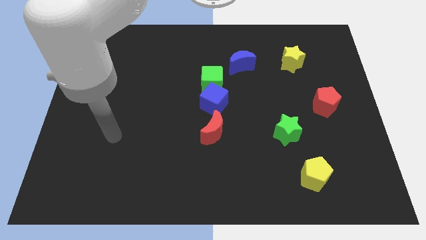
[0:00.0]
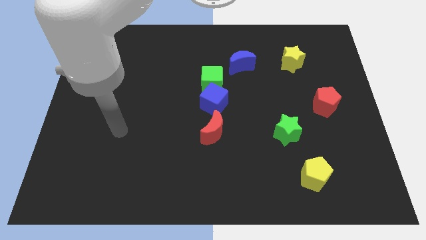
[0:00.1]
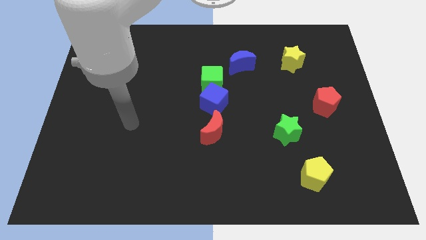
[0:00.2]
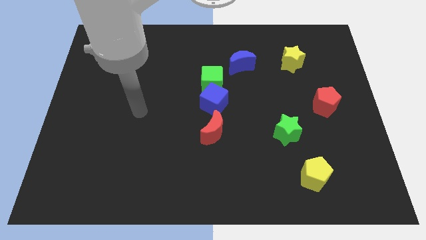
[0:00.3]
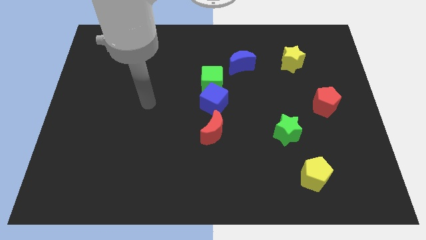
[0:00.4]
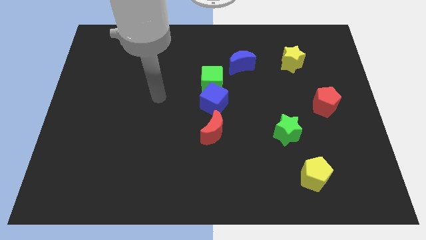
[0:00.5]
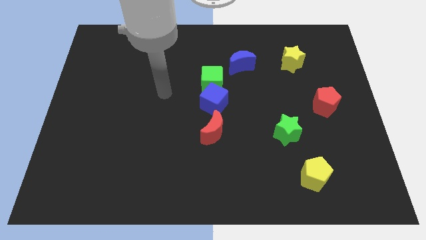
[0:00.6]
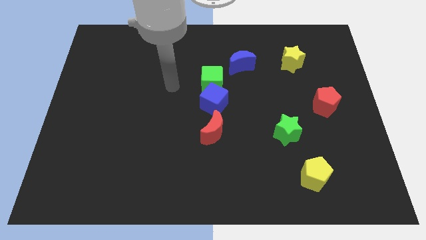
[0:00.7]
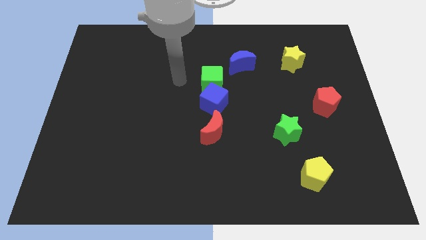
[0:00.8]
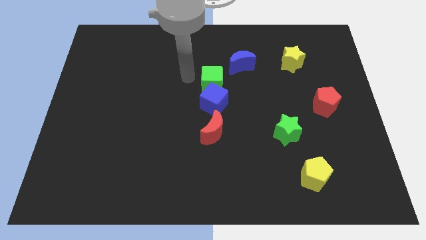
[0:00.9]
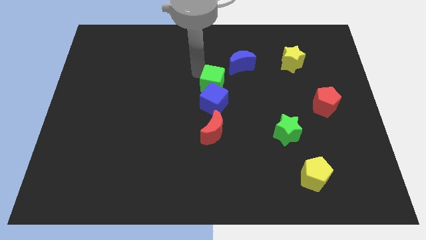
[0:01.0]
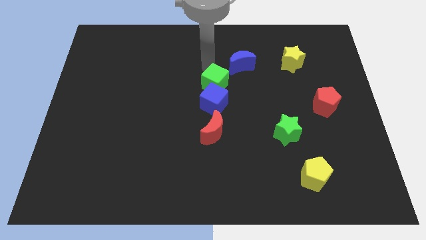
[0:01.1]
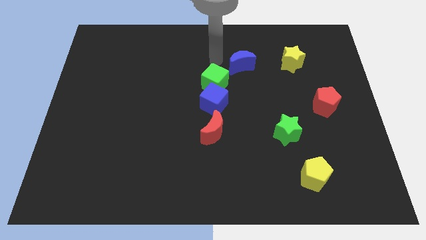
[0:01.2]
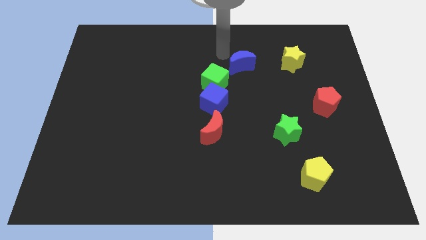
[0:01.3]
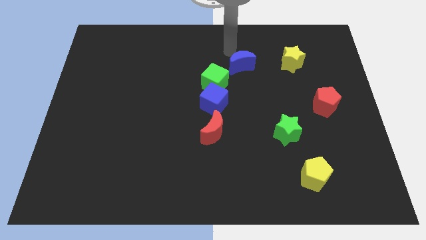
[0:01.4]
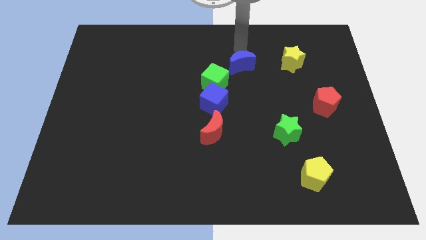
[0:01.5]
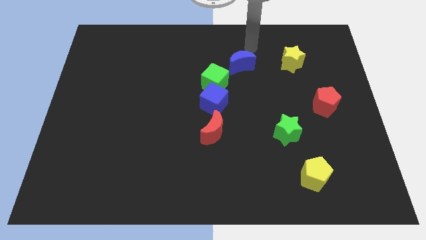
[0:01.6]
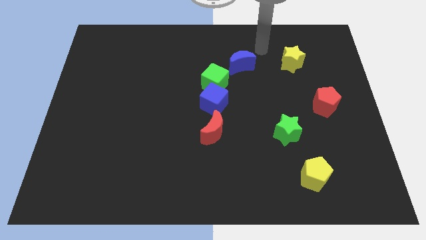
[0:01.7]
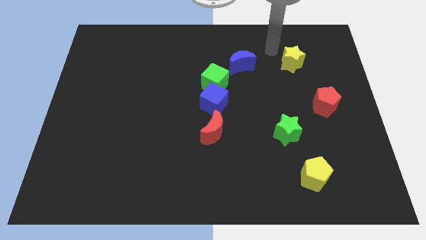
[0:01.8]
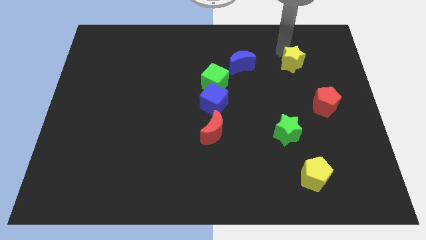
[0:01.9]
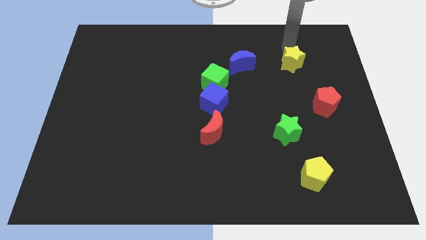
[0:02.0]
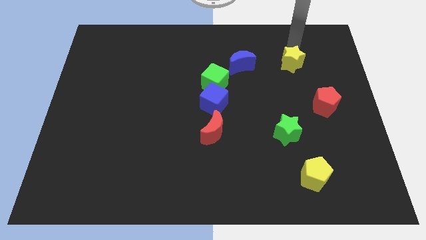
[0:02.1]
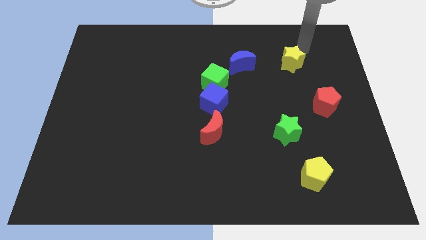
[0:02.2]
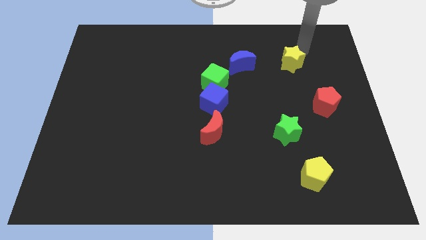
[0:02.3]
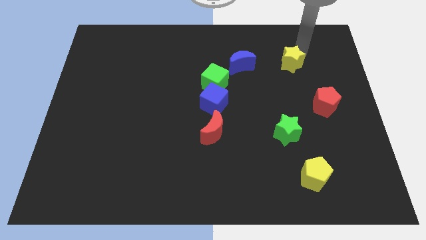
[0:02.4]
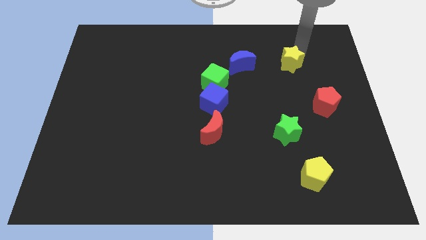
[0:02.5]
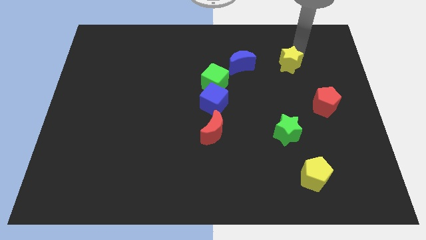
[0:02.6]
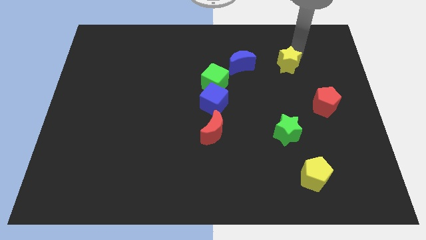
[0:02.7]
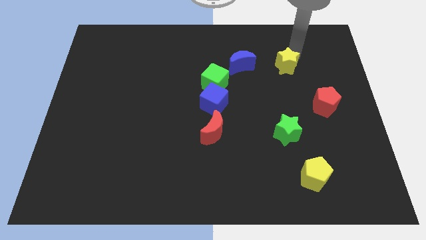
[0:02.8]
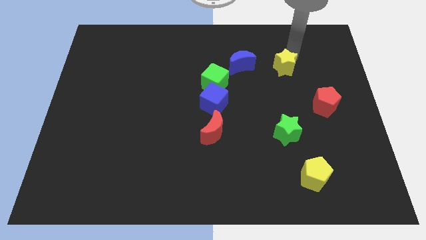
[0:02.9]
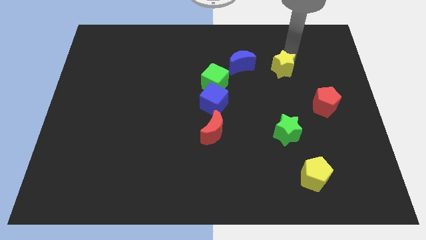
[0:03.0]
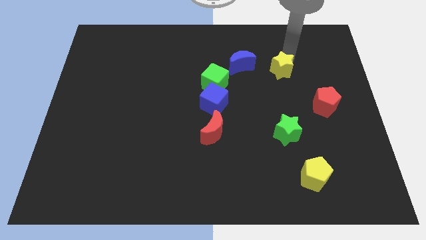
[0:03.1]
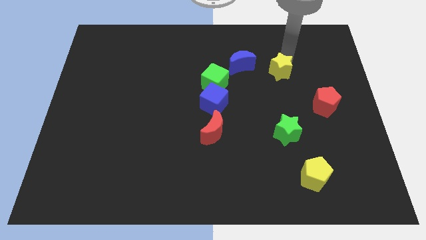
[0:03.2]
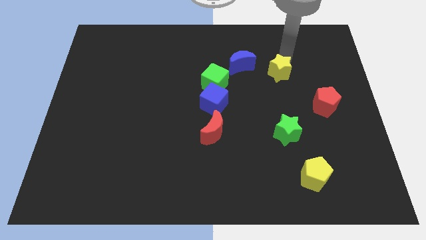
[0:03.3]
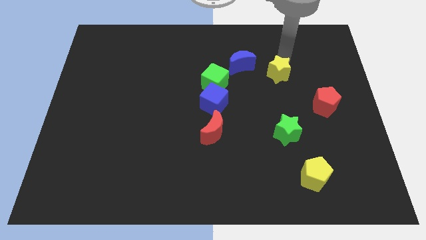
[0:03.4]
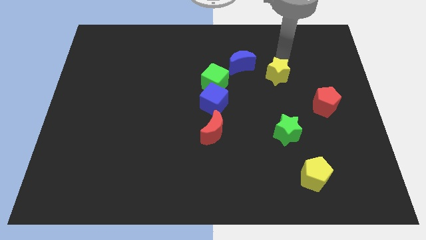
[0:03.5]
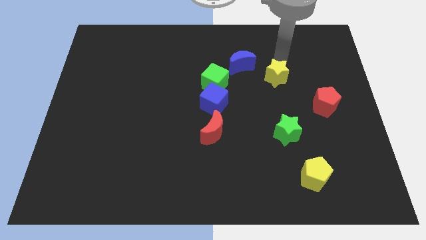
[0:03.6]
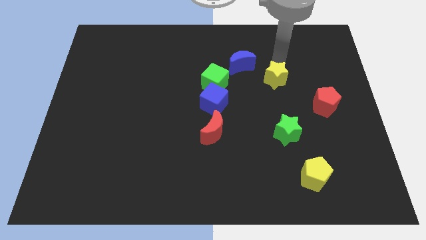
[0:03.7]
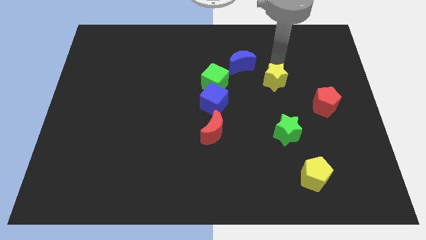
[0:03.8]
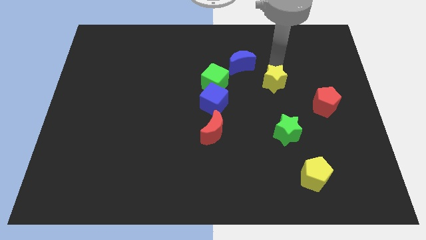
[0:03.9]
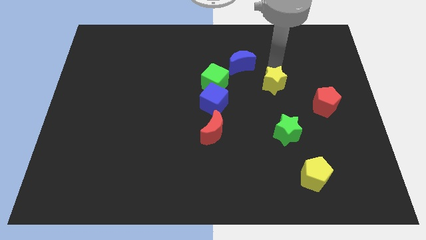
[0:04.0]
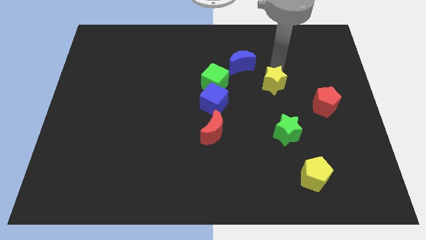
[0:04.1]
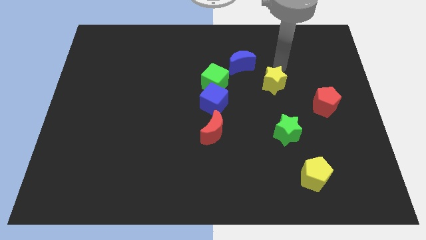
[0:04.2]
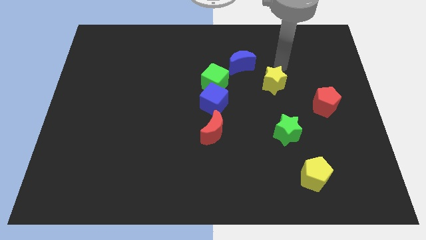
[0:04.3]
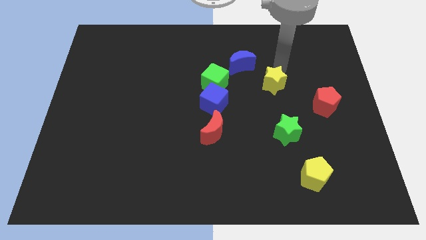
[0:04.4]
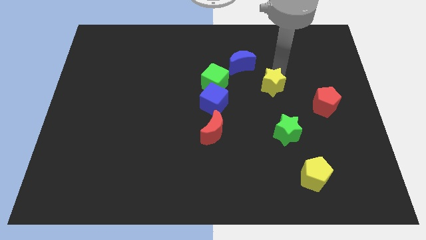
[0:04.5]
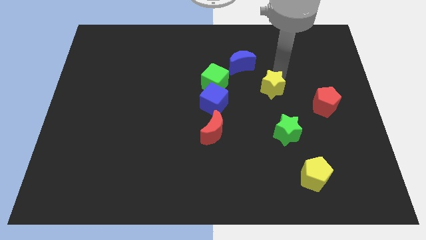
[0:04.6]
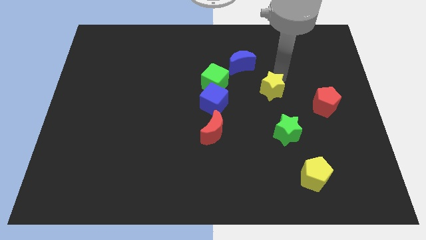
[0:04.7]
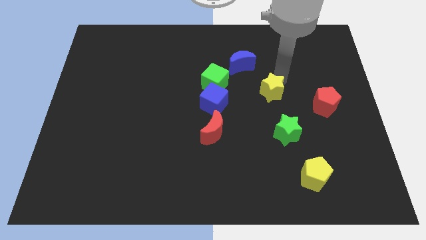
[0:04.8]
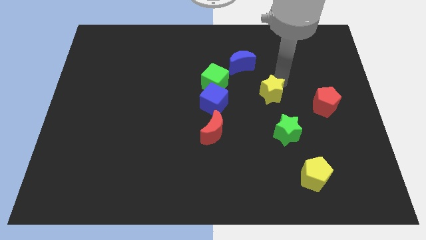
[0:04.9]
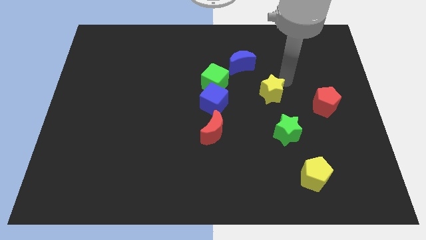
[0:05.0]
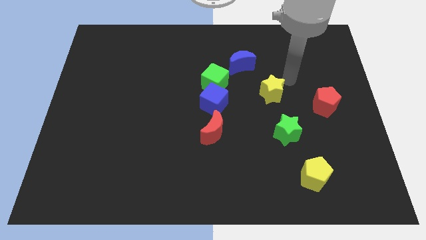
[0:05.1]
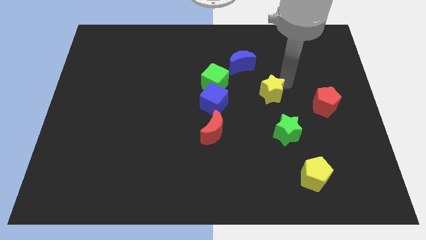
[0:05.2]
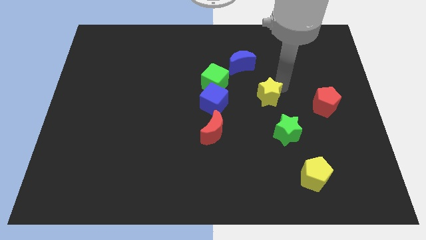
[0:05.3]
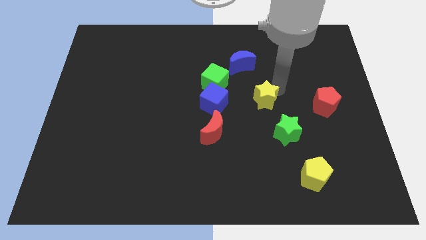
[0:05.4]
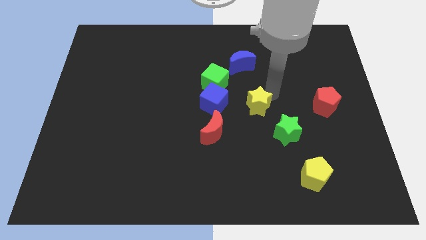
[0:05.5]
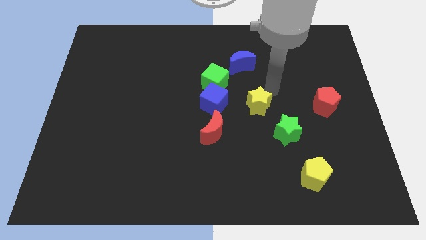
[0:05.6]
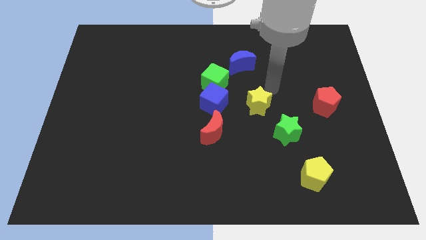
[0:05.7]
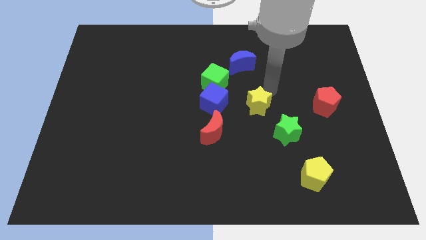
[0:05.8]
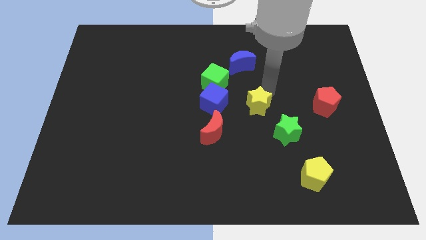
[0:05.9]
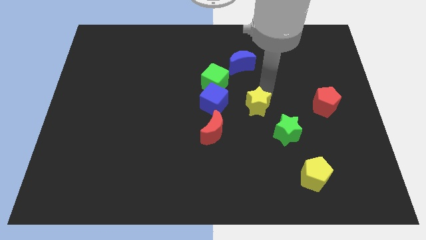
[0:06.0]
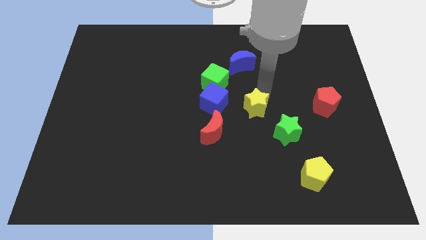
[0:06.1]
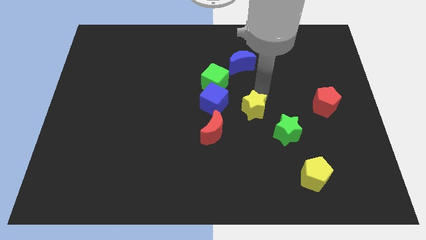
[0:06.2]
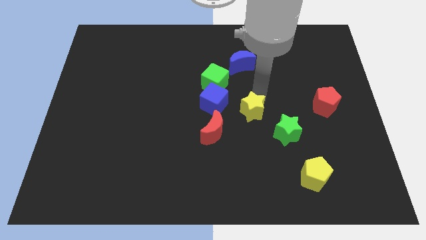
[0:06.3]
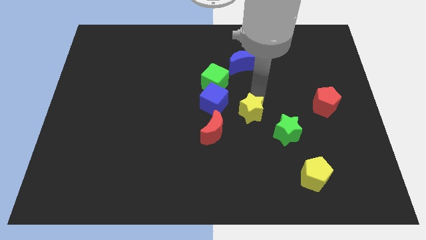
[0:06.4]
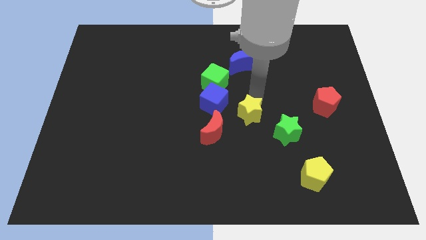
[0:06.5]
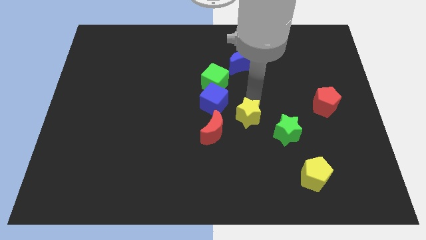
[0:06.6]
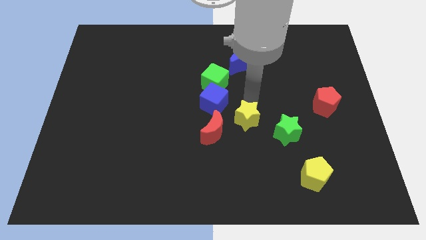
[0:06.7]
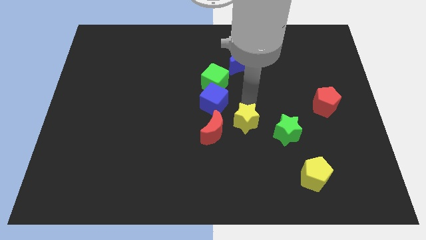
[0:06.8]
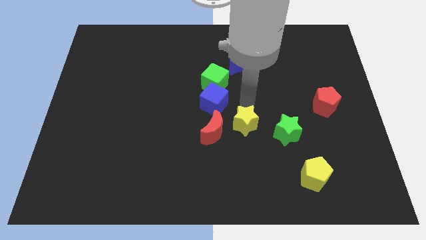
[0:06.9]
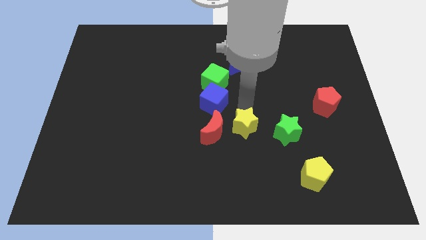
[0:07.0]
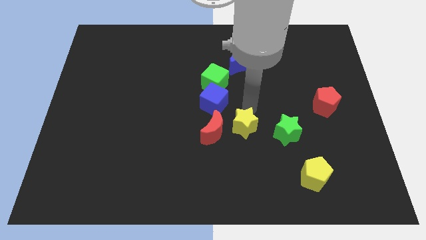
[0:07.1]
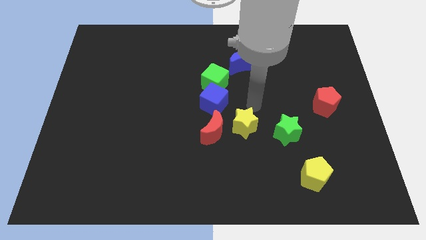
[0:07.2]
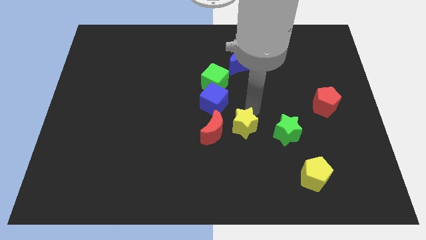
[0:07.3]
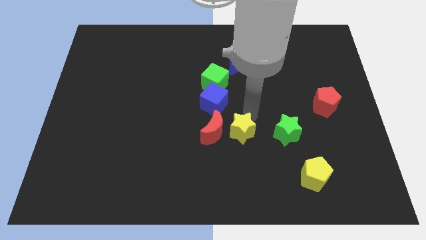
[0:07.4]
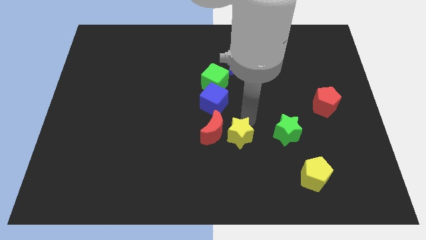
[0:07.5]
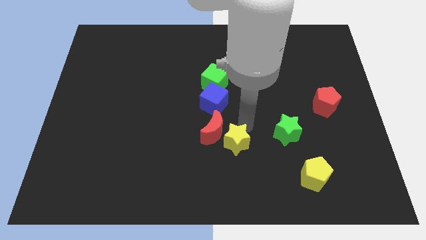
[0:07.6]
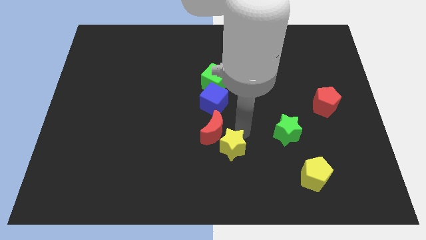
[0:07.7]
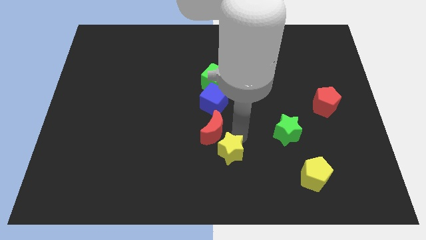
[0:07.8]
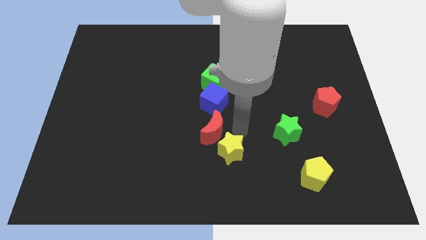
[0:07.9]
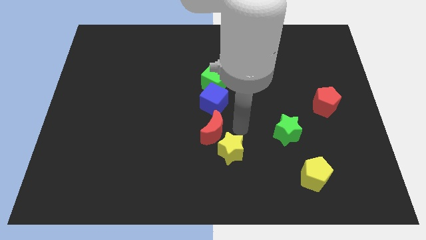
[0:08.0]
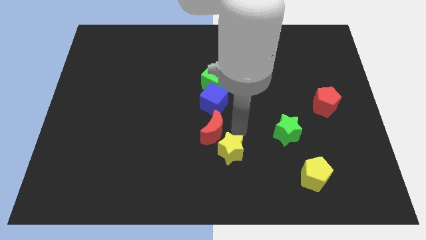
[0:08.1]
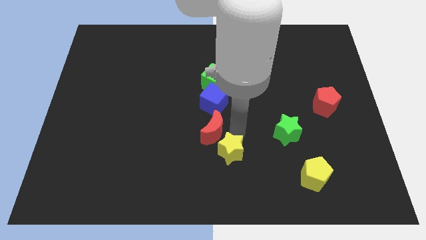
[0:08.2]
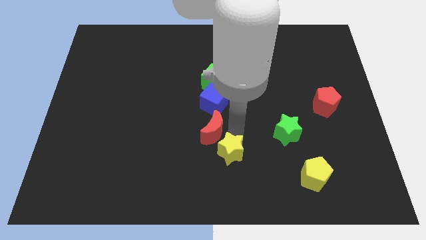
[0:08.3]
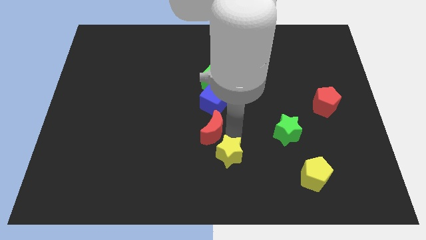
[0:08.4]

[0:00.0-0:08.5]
move the yellow star to the bottom side
